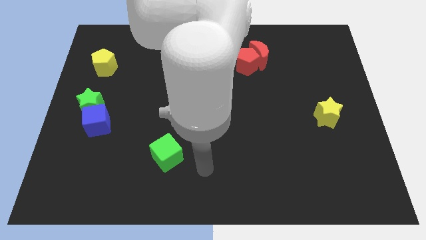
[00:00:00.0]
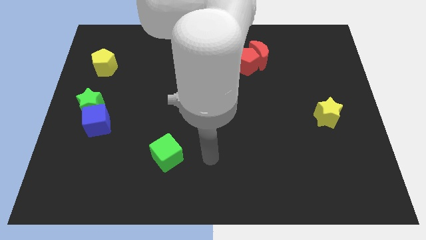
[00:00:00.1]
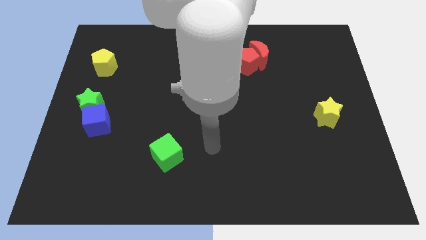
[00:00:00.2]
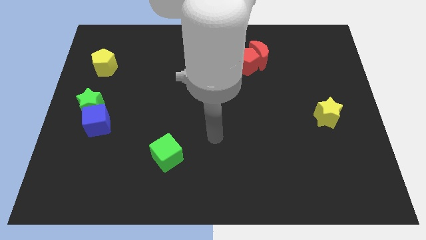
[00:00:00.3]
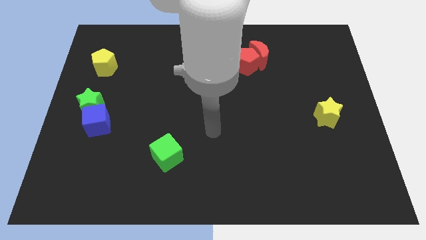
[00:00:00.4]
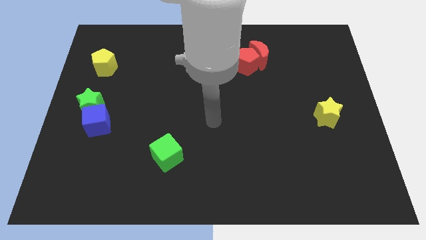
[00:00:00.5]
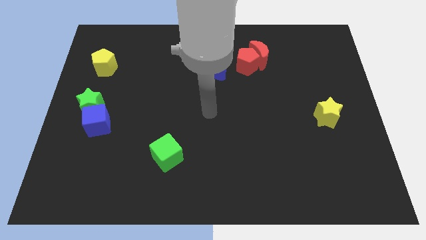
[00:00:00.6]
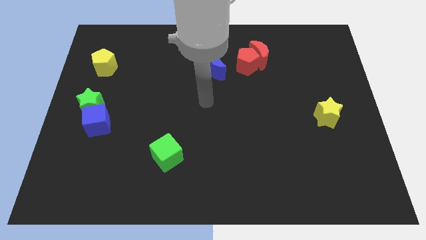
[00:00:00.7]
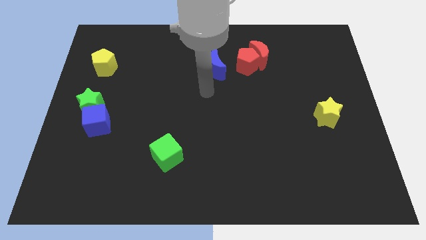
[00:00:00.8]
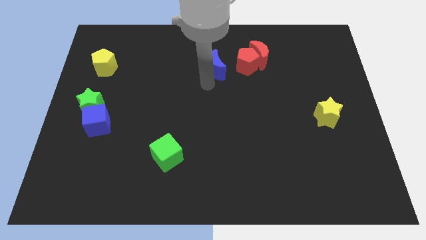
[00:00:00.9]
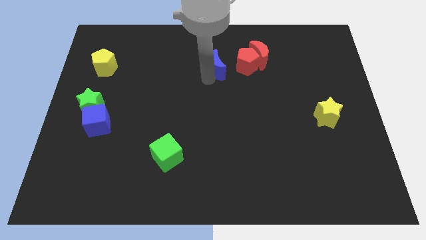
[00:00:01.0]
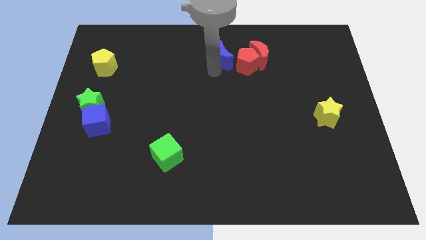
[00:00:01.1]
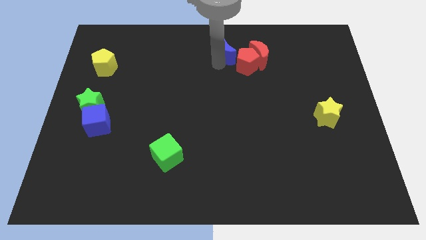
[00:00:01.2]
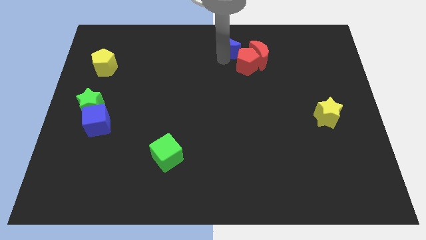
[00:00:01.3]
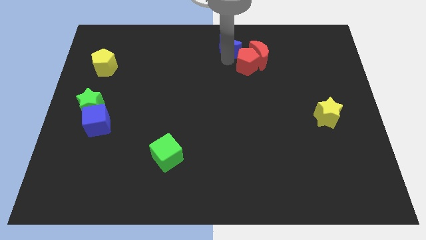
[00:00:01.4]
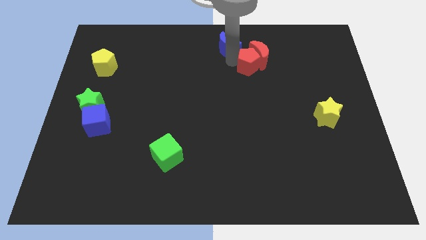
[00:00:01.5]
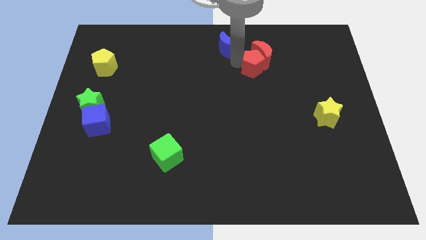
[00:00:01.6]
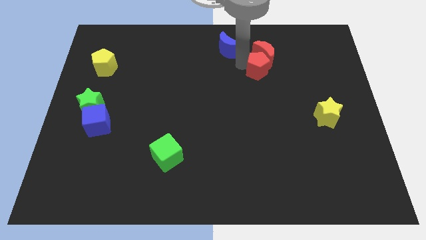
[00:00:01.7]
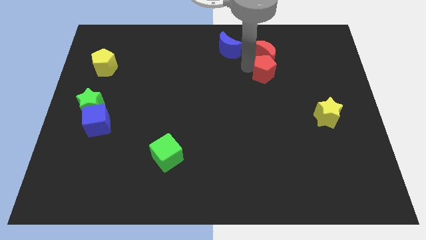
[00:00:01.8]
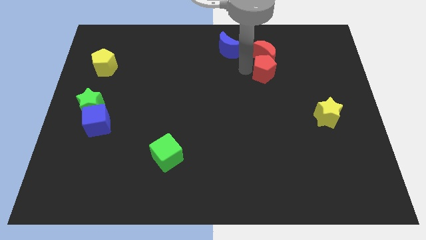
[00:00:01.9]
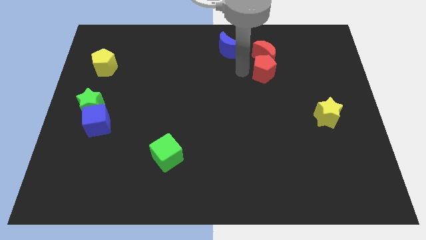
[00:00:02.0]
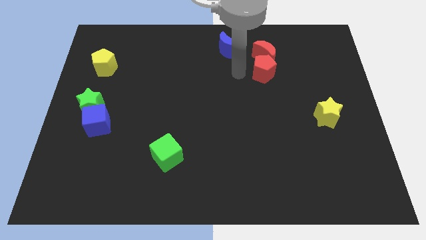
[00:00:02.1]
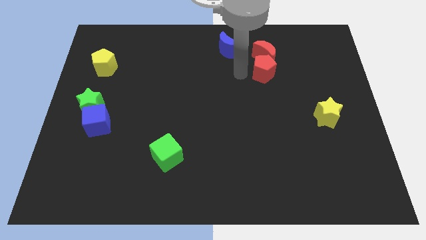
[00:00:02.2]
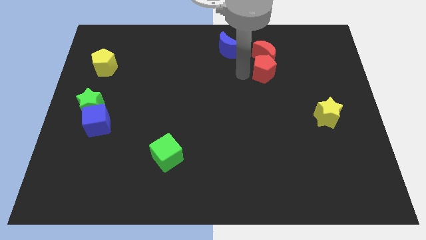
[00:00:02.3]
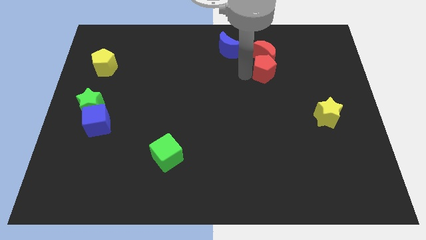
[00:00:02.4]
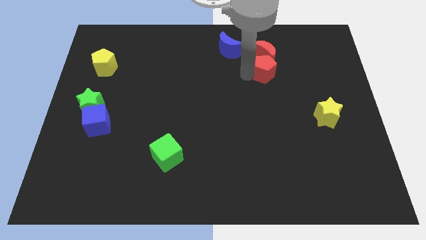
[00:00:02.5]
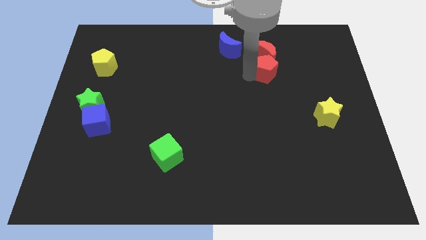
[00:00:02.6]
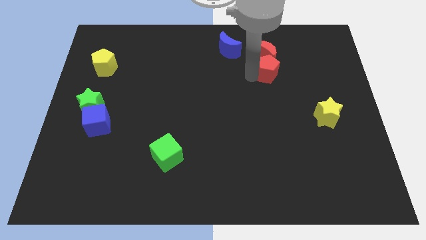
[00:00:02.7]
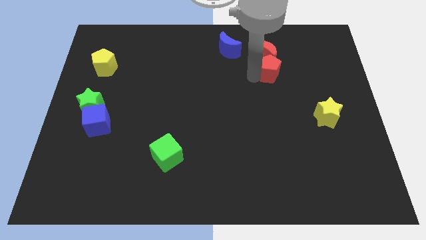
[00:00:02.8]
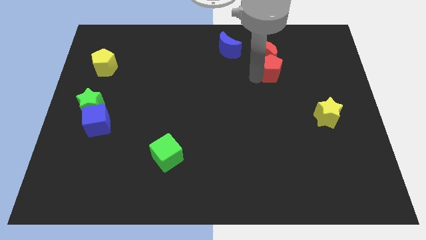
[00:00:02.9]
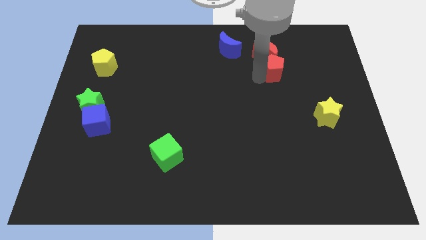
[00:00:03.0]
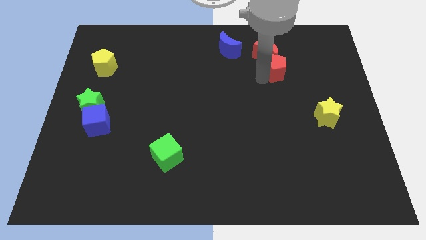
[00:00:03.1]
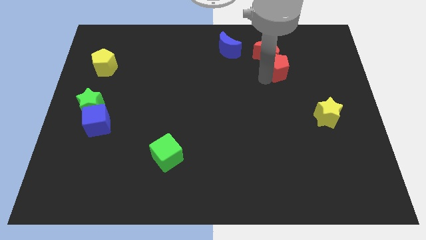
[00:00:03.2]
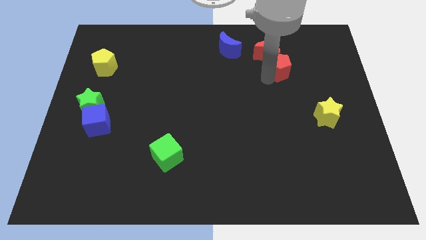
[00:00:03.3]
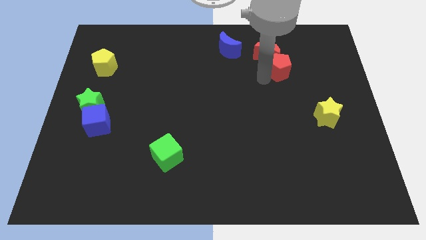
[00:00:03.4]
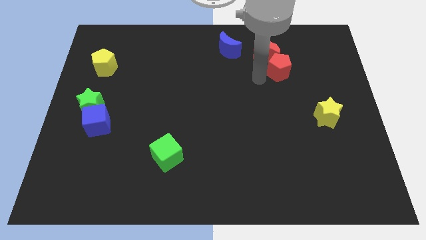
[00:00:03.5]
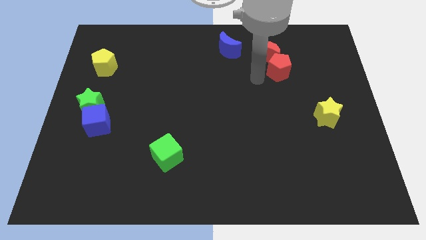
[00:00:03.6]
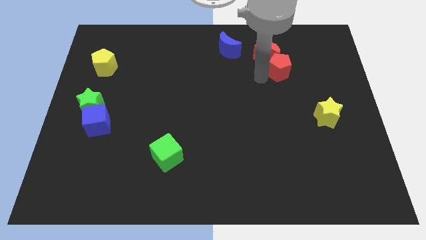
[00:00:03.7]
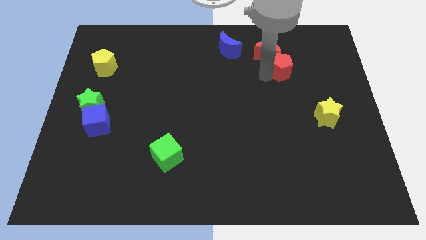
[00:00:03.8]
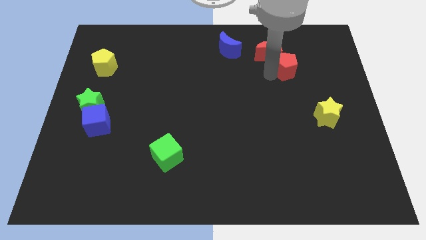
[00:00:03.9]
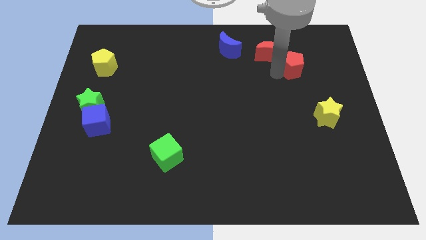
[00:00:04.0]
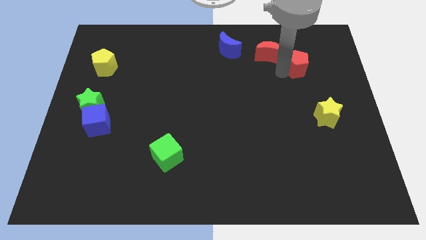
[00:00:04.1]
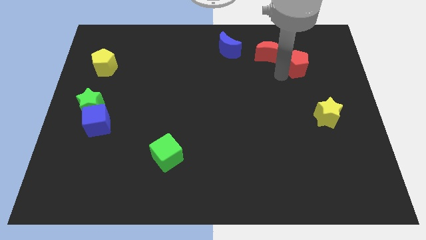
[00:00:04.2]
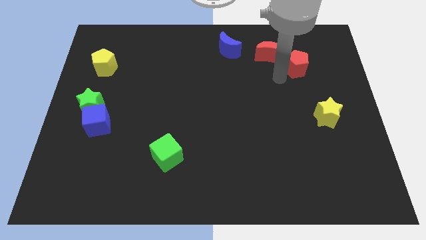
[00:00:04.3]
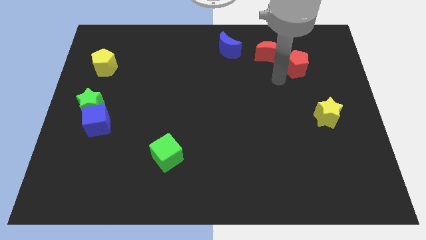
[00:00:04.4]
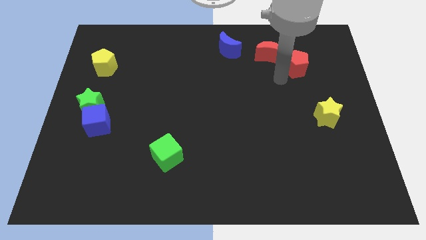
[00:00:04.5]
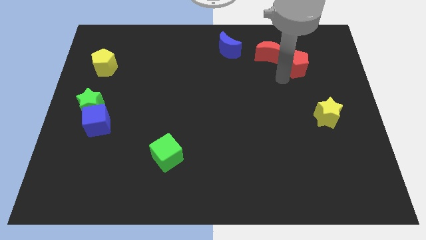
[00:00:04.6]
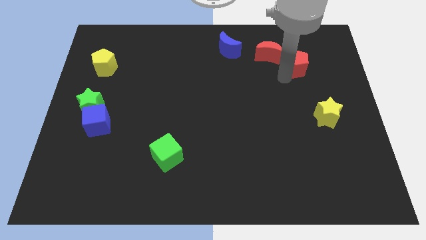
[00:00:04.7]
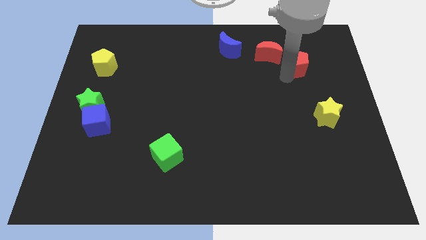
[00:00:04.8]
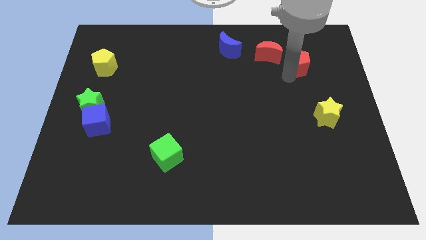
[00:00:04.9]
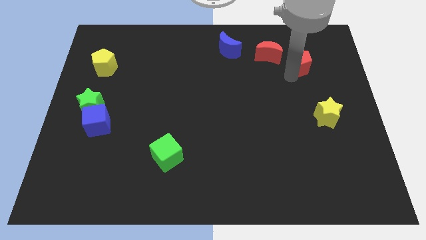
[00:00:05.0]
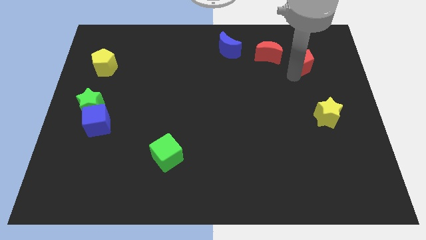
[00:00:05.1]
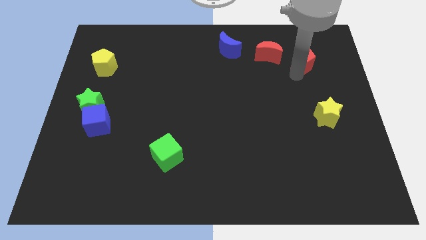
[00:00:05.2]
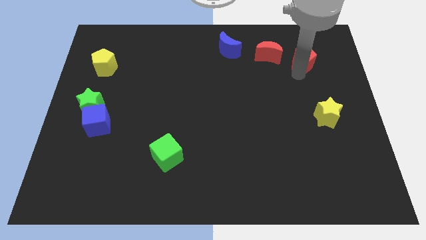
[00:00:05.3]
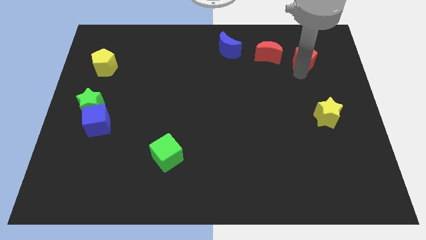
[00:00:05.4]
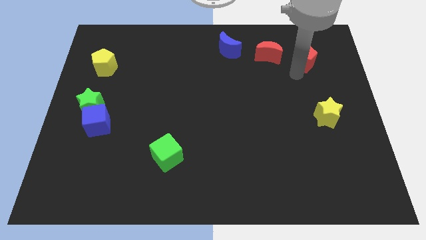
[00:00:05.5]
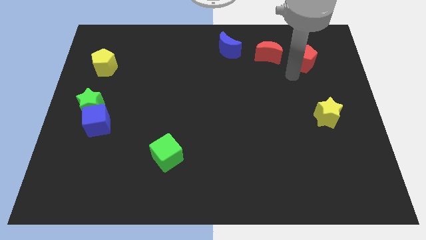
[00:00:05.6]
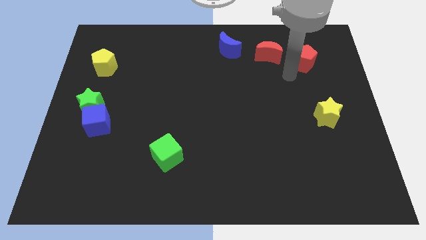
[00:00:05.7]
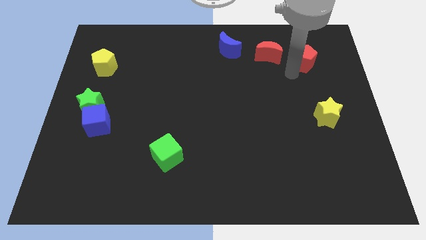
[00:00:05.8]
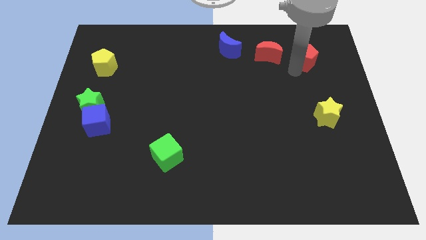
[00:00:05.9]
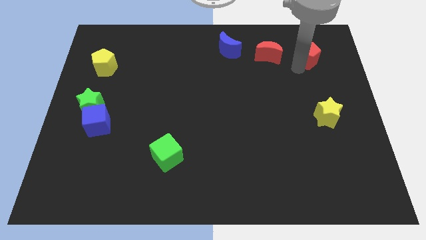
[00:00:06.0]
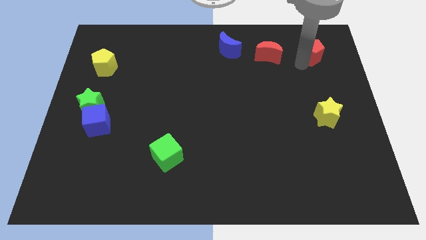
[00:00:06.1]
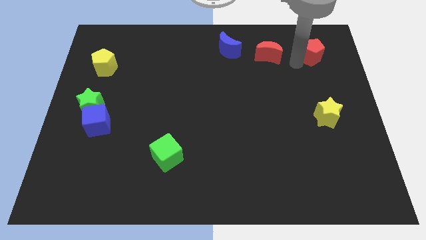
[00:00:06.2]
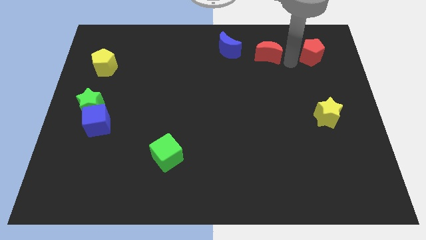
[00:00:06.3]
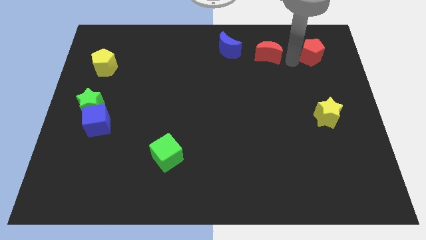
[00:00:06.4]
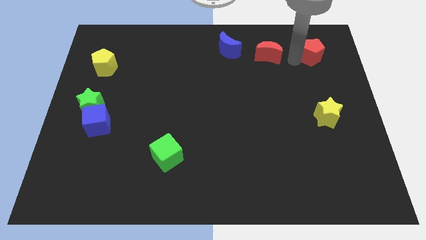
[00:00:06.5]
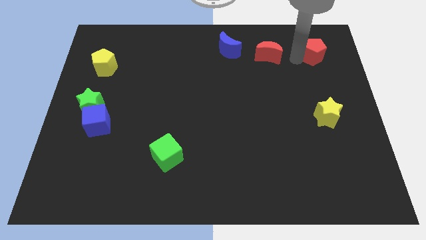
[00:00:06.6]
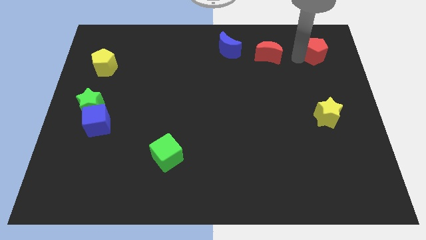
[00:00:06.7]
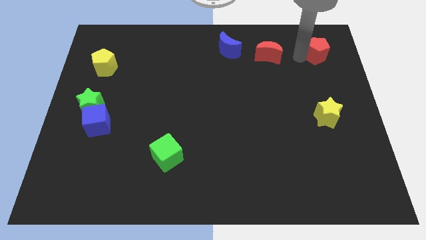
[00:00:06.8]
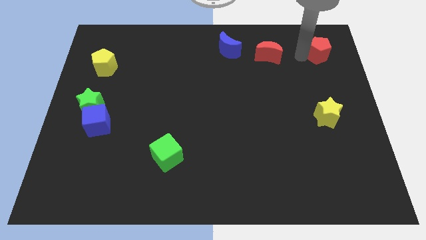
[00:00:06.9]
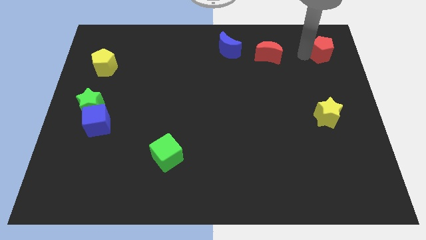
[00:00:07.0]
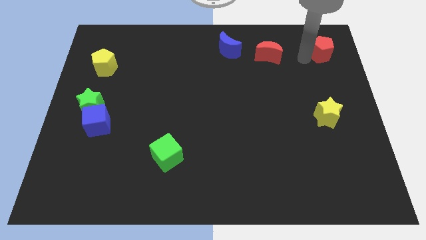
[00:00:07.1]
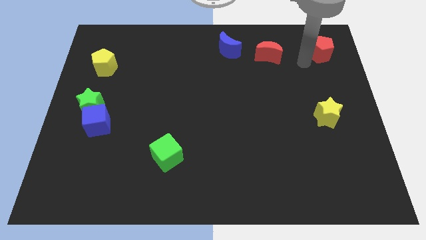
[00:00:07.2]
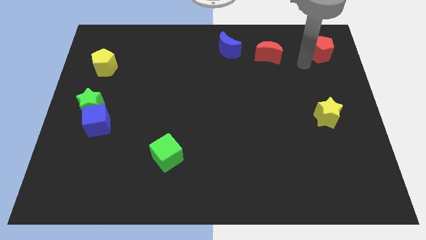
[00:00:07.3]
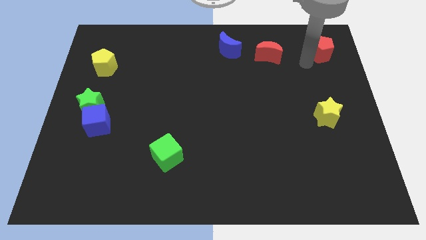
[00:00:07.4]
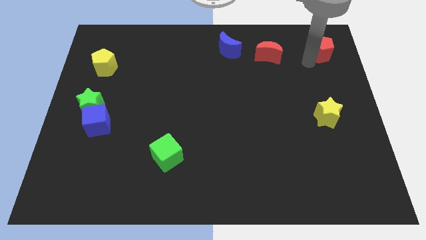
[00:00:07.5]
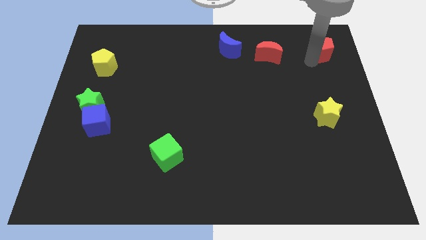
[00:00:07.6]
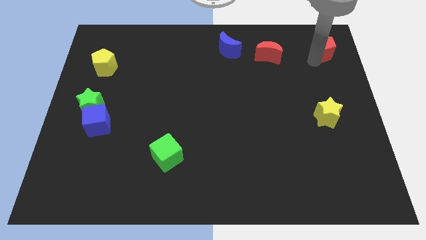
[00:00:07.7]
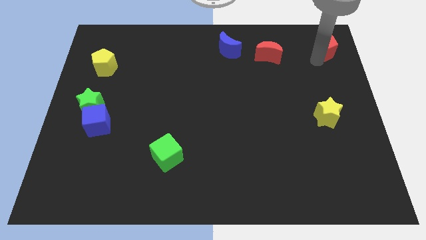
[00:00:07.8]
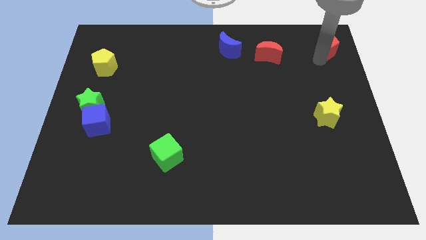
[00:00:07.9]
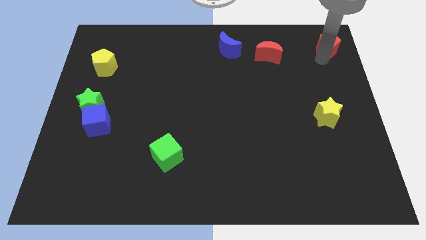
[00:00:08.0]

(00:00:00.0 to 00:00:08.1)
push the red pentagon to the top right of the board
